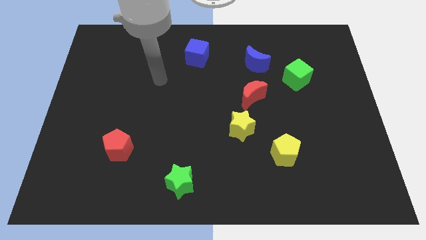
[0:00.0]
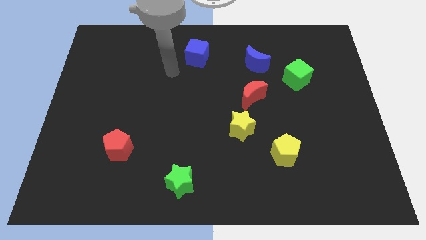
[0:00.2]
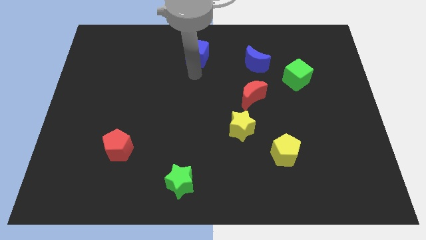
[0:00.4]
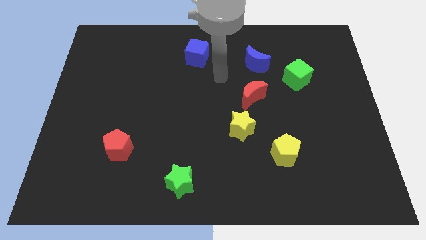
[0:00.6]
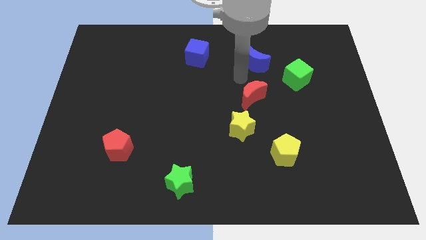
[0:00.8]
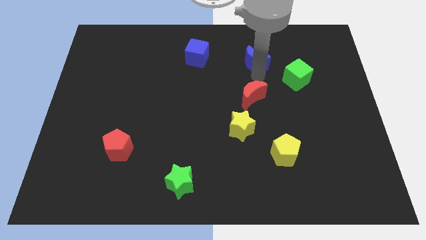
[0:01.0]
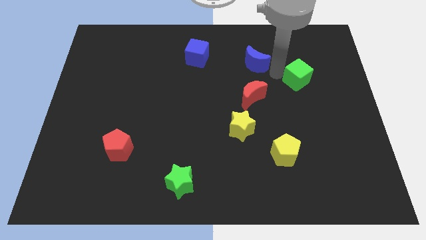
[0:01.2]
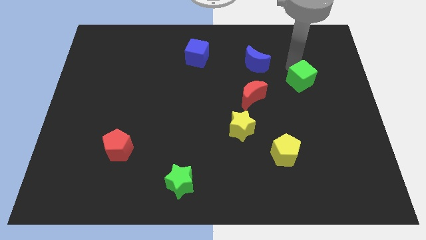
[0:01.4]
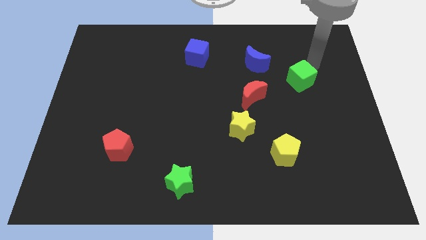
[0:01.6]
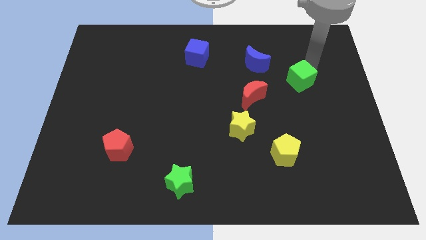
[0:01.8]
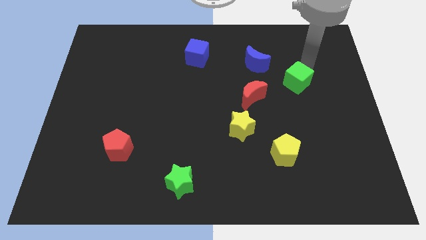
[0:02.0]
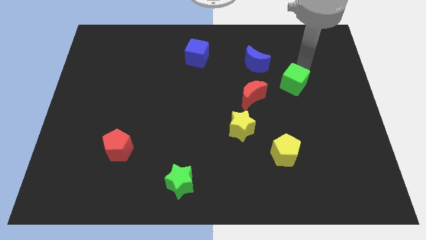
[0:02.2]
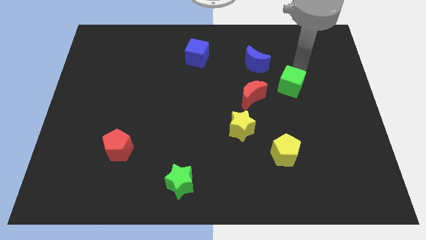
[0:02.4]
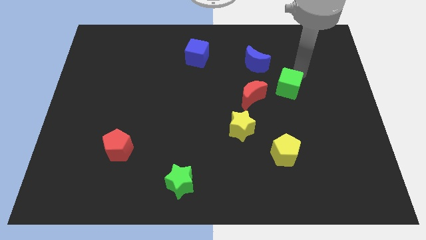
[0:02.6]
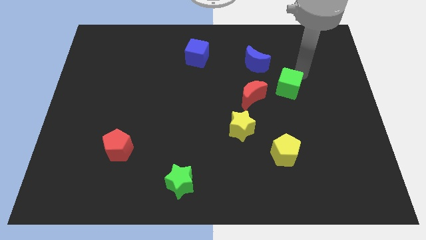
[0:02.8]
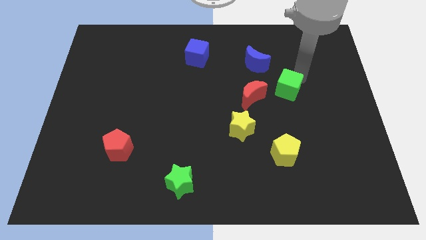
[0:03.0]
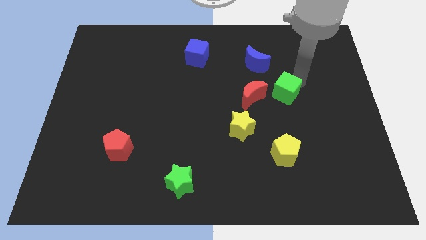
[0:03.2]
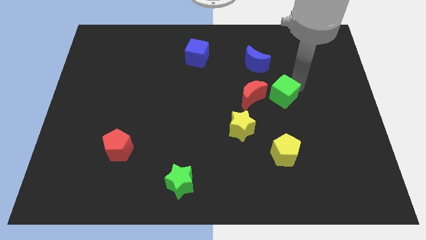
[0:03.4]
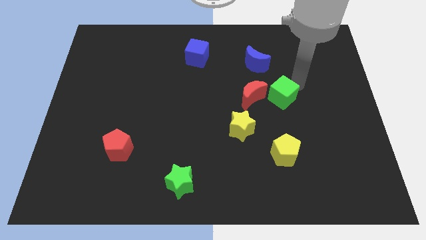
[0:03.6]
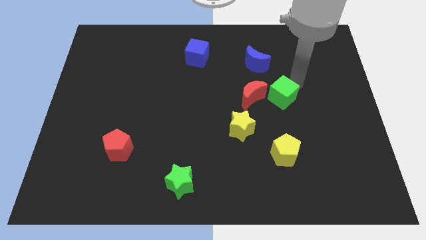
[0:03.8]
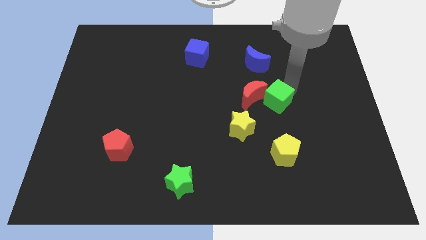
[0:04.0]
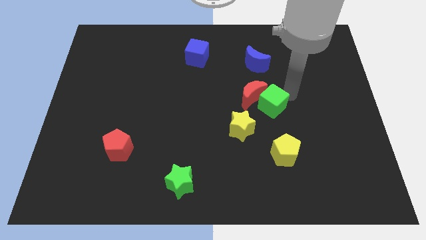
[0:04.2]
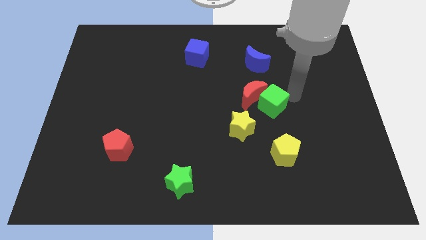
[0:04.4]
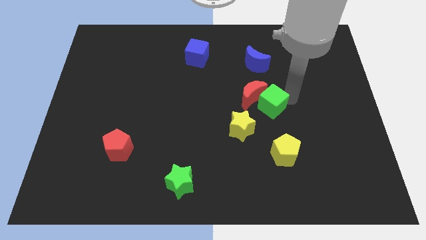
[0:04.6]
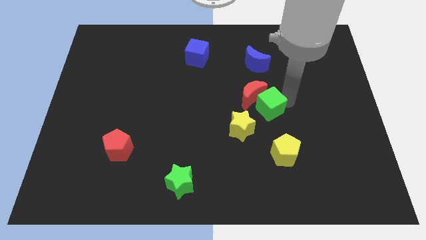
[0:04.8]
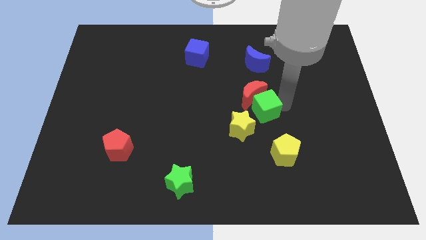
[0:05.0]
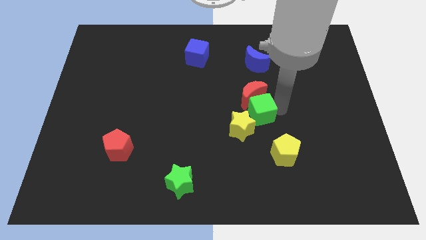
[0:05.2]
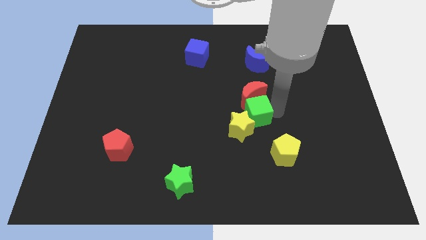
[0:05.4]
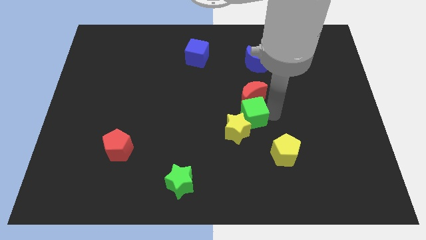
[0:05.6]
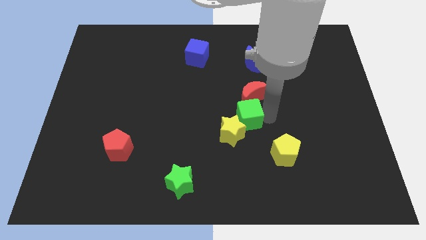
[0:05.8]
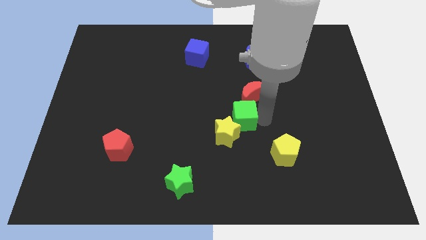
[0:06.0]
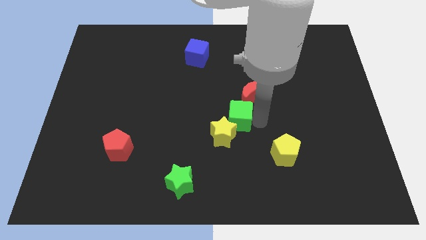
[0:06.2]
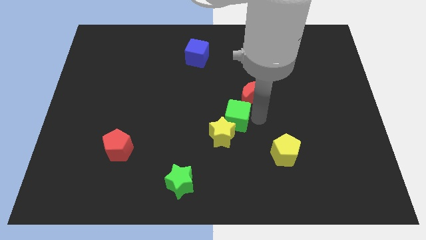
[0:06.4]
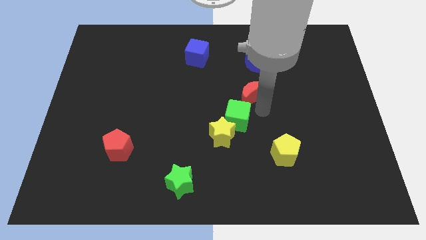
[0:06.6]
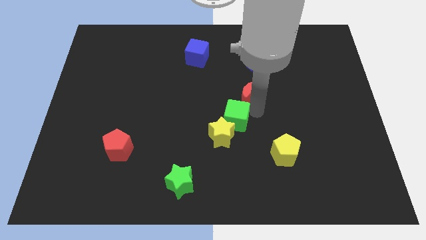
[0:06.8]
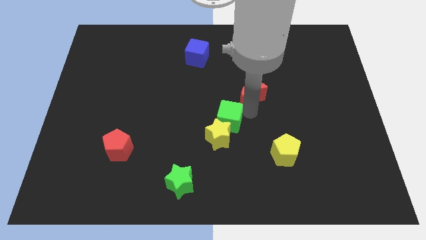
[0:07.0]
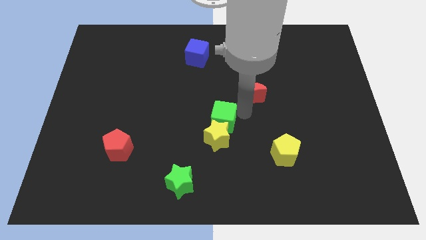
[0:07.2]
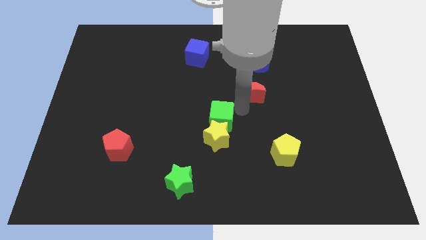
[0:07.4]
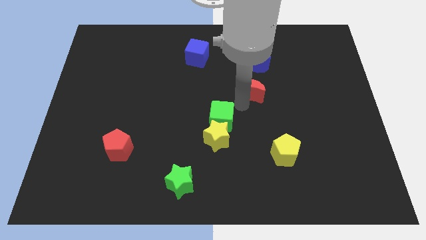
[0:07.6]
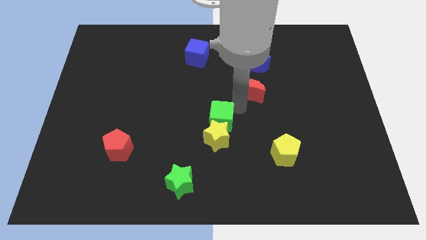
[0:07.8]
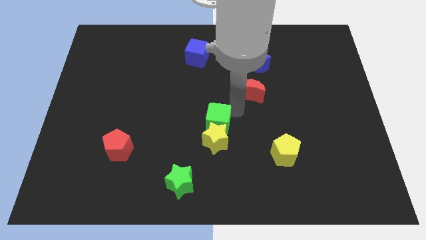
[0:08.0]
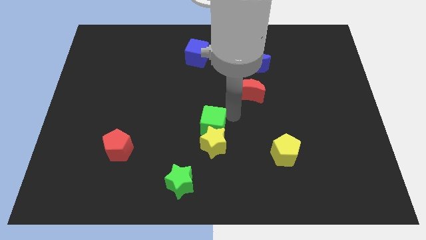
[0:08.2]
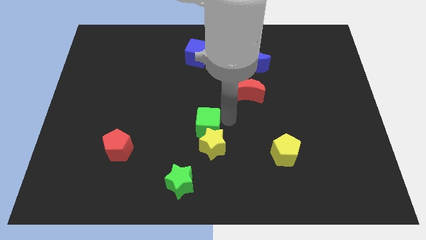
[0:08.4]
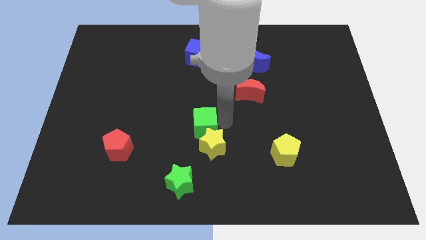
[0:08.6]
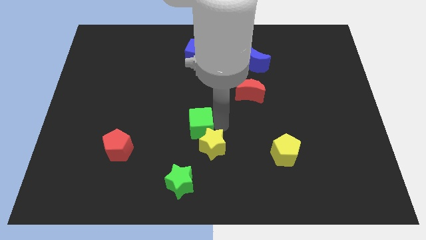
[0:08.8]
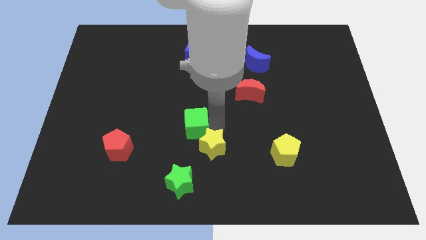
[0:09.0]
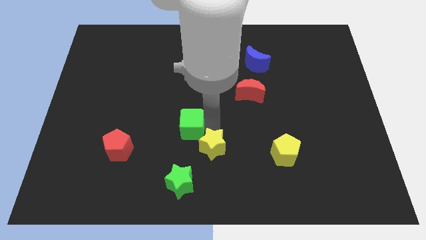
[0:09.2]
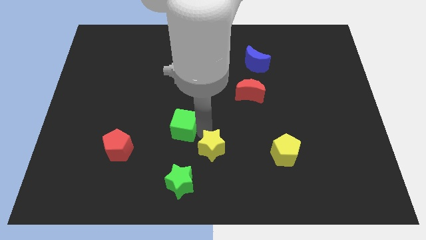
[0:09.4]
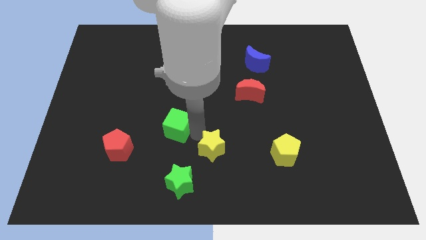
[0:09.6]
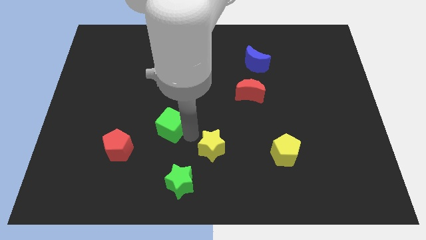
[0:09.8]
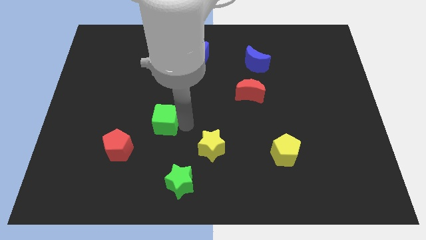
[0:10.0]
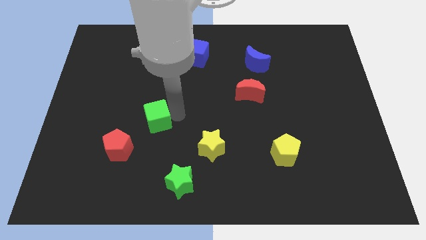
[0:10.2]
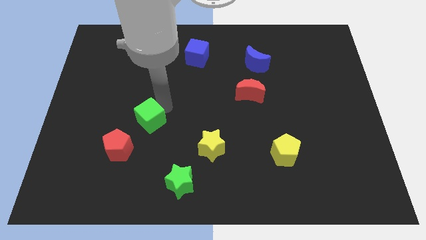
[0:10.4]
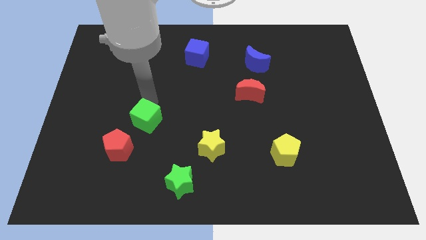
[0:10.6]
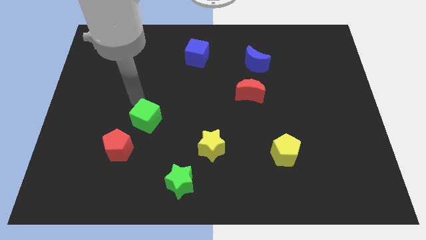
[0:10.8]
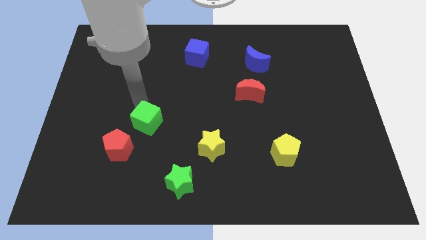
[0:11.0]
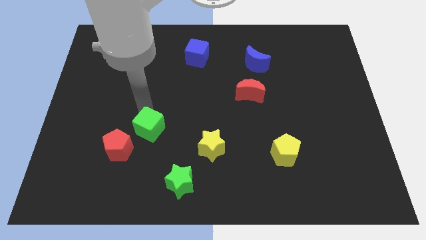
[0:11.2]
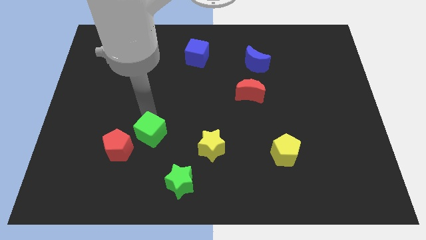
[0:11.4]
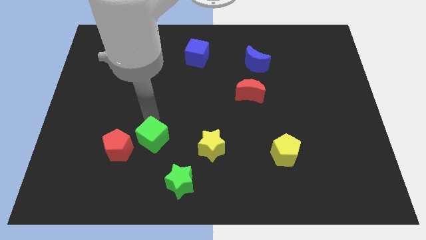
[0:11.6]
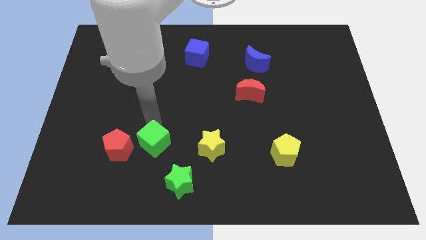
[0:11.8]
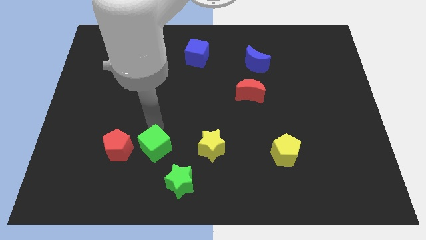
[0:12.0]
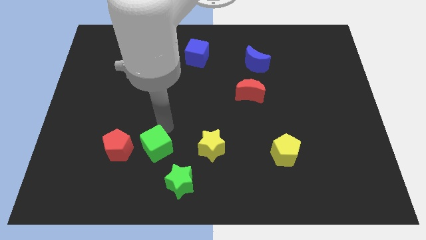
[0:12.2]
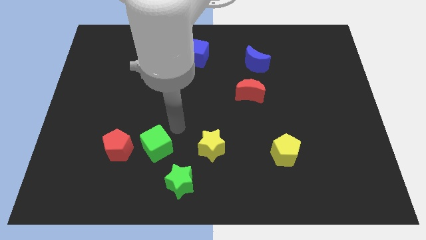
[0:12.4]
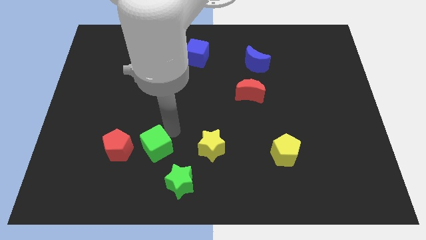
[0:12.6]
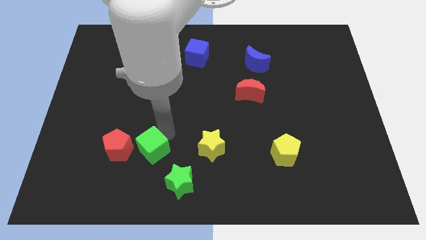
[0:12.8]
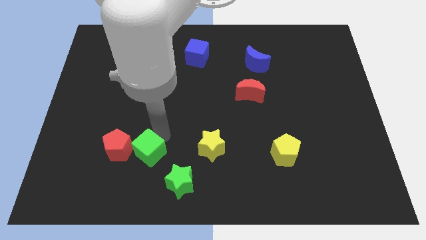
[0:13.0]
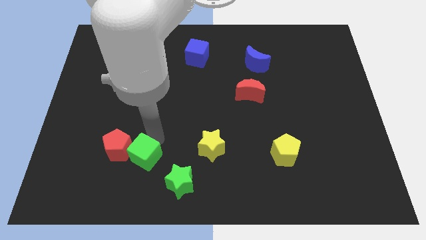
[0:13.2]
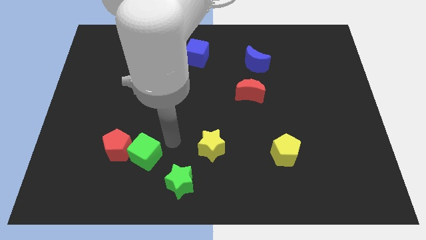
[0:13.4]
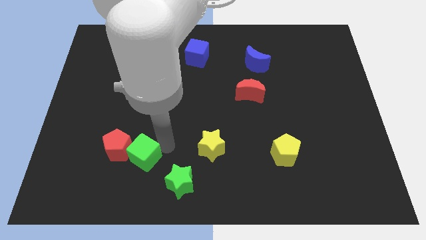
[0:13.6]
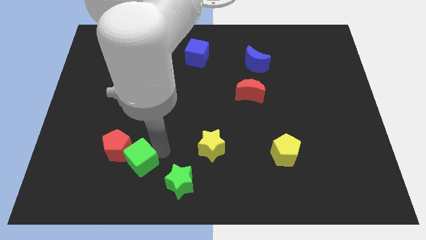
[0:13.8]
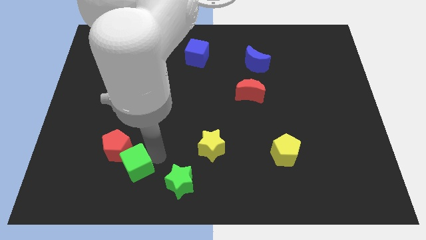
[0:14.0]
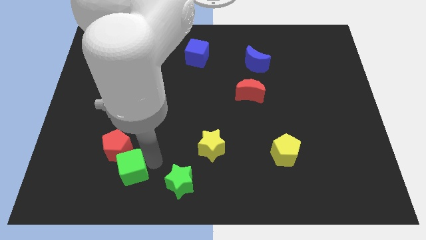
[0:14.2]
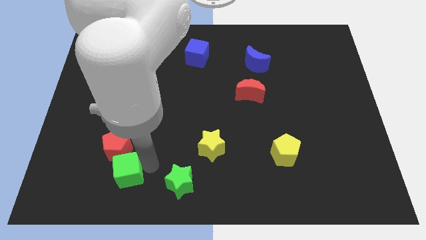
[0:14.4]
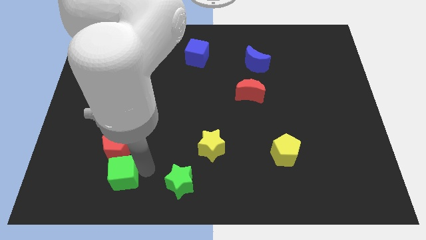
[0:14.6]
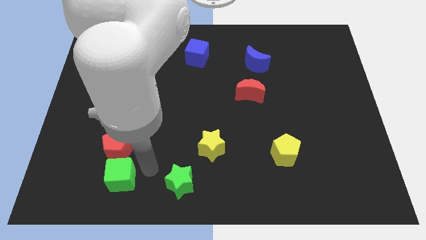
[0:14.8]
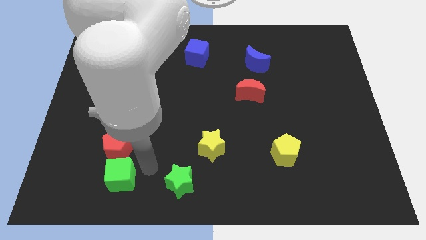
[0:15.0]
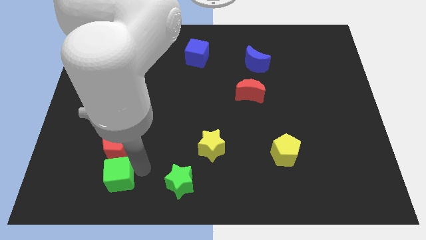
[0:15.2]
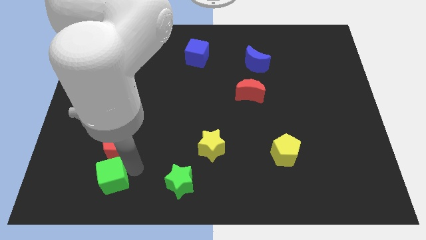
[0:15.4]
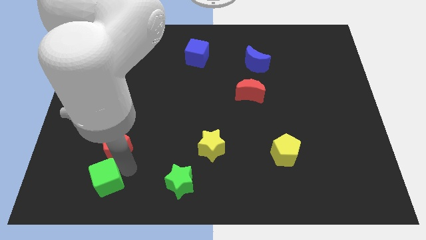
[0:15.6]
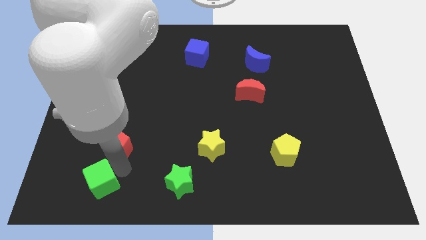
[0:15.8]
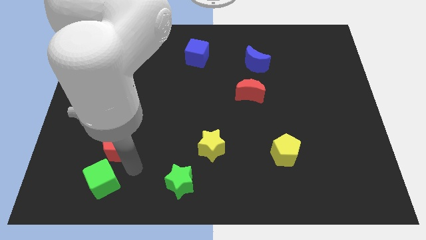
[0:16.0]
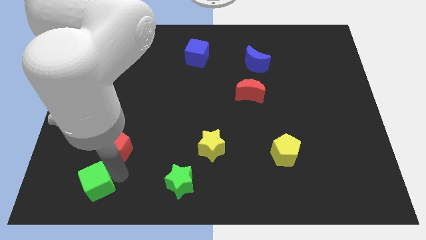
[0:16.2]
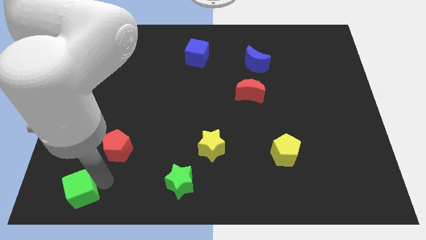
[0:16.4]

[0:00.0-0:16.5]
move the green cube to the bottom left corner
